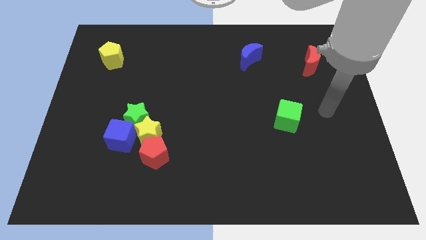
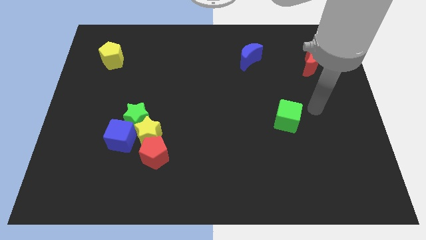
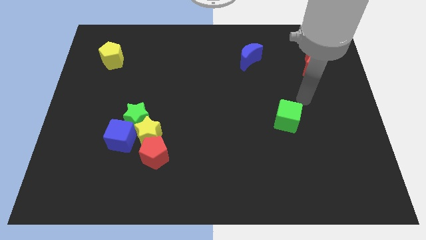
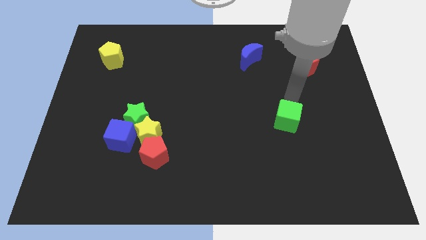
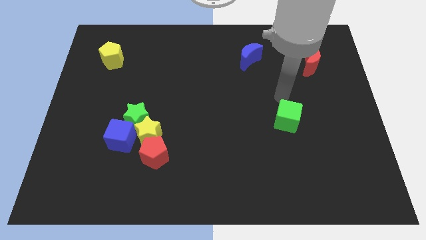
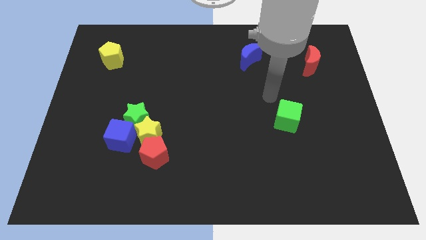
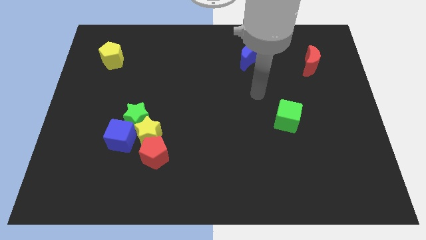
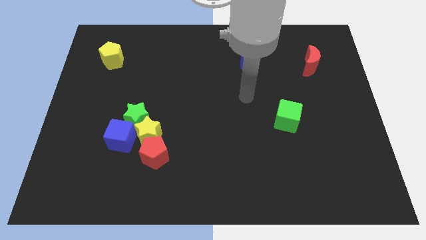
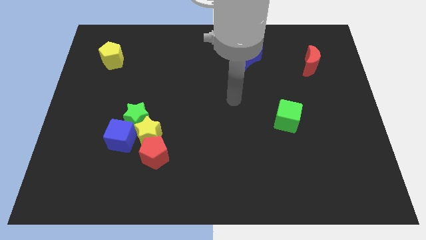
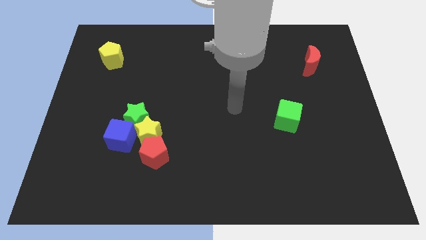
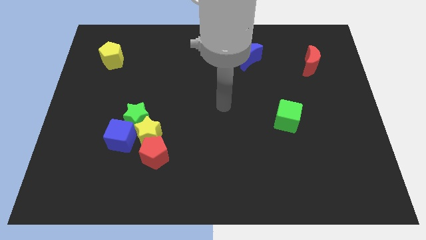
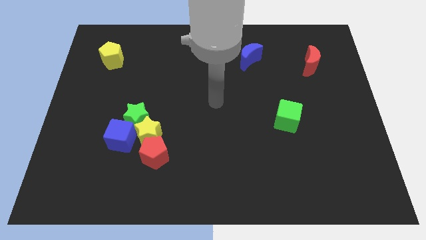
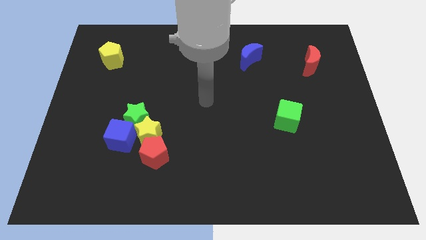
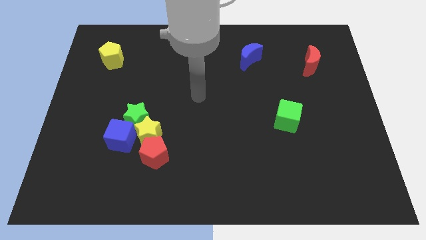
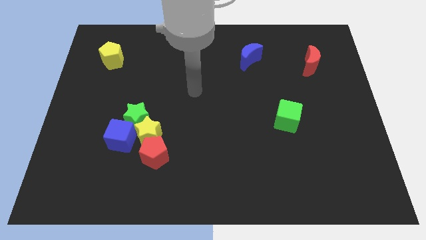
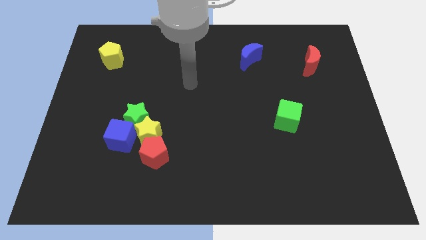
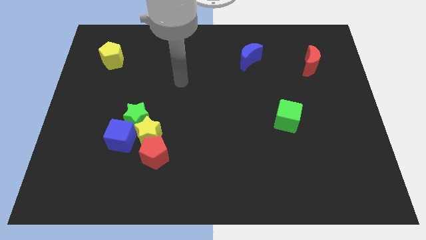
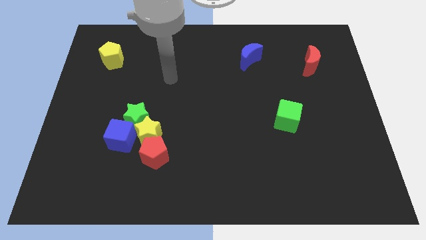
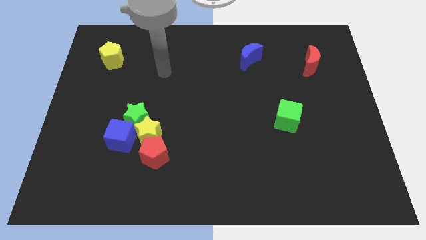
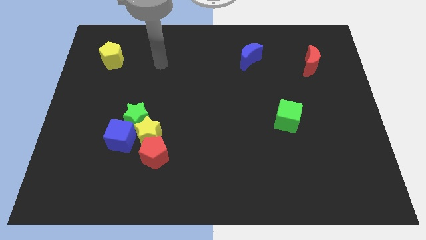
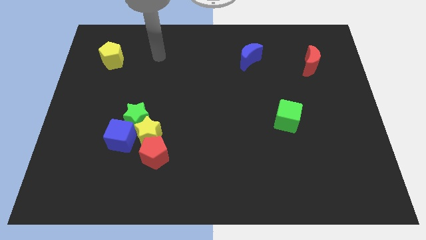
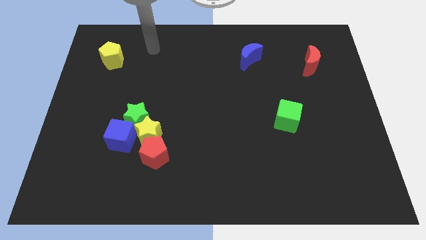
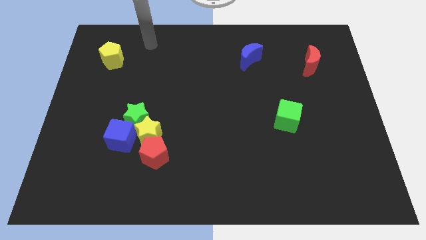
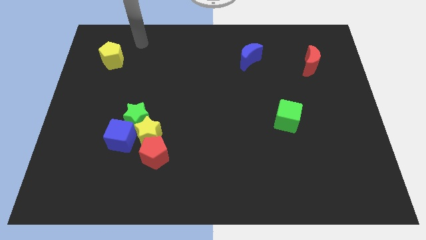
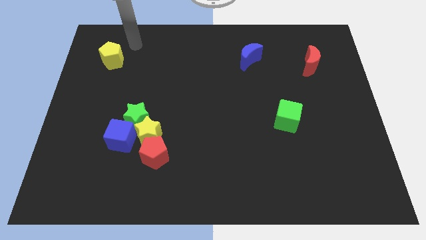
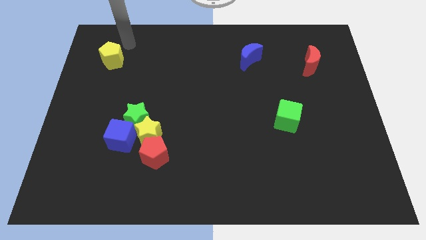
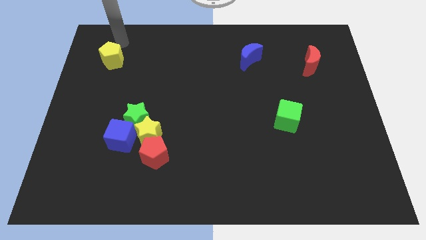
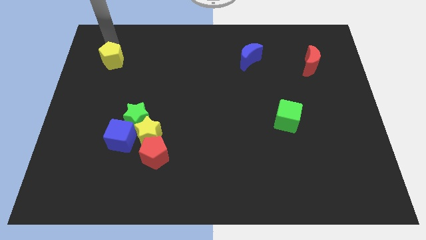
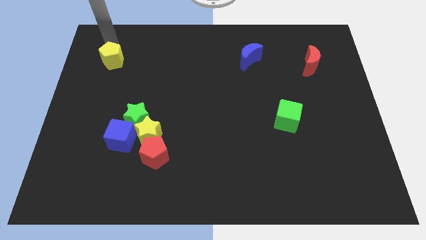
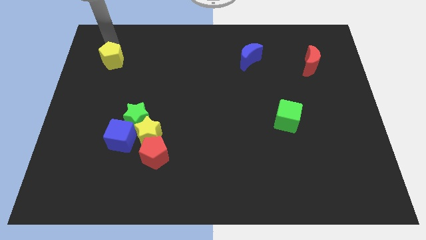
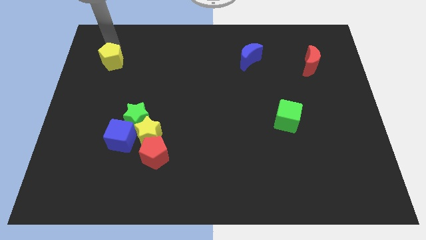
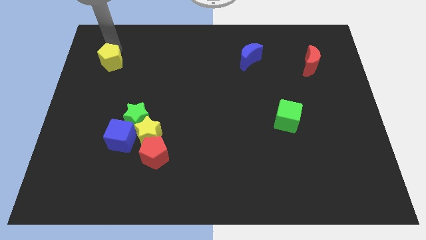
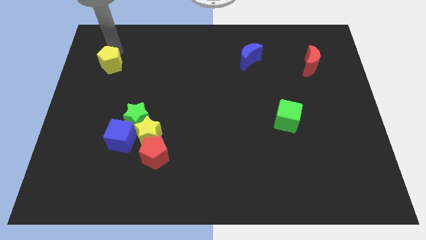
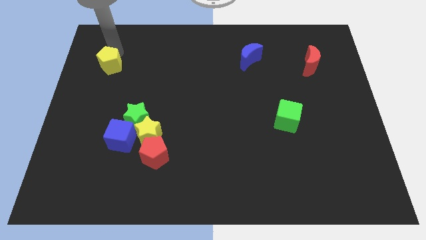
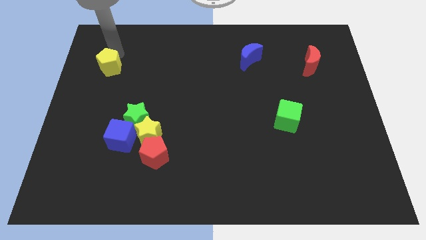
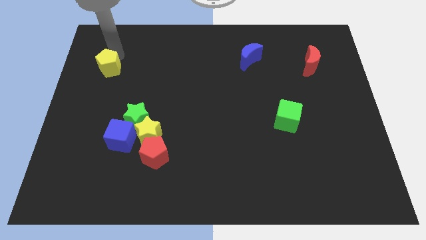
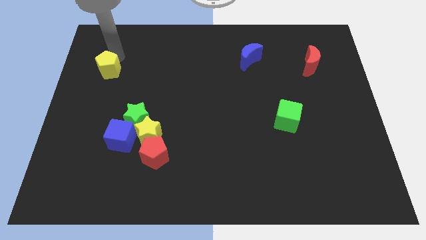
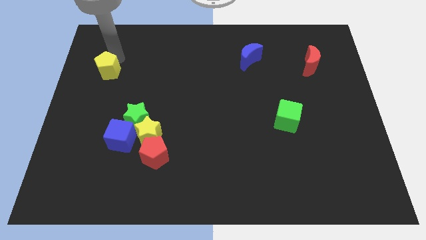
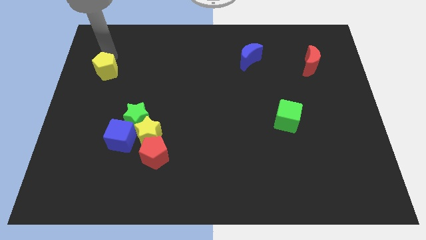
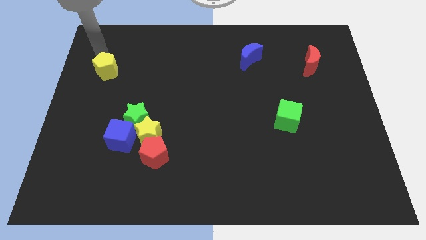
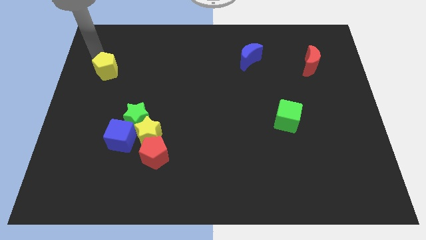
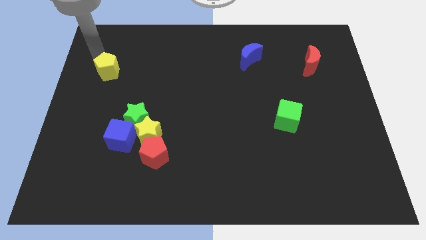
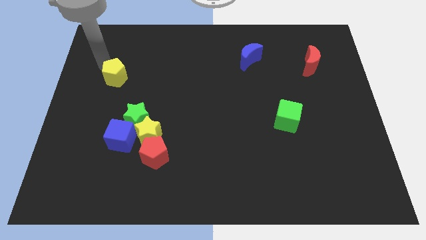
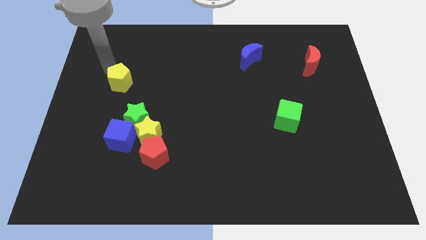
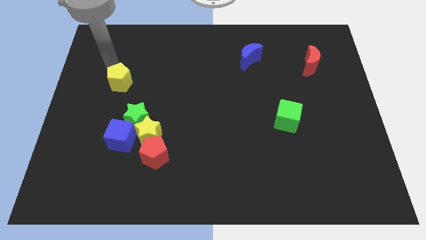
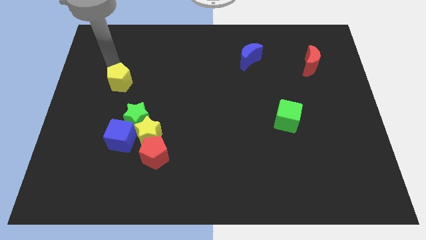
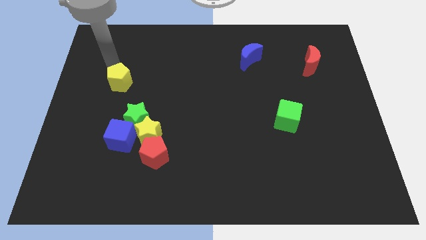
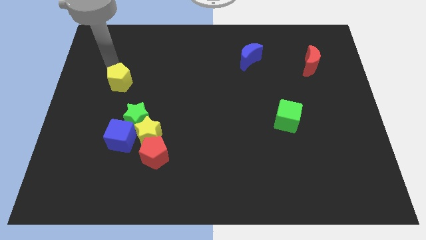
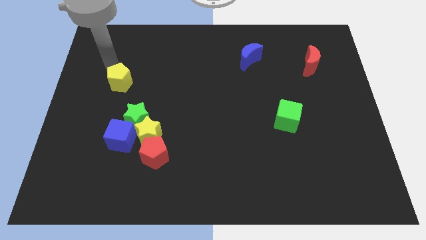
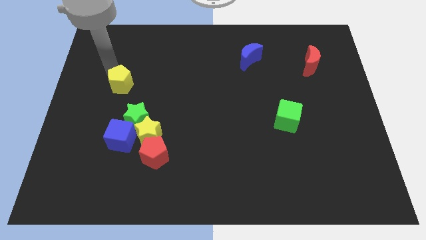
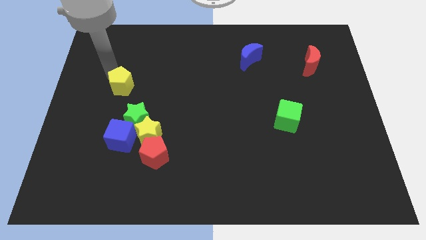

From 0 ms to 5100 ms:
push the yellow pentagon above the blue cube

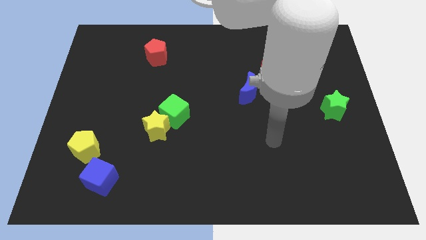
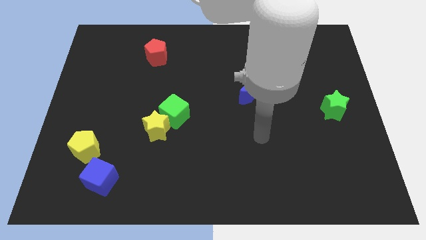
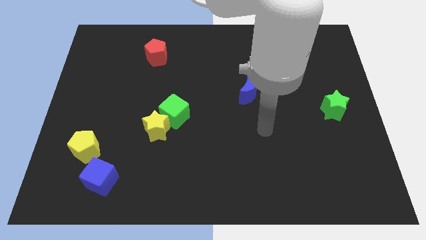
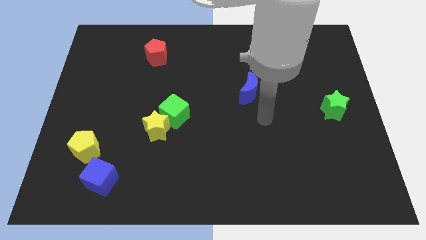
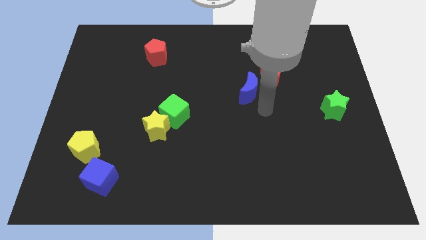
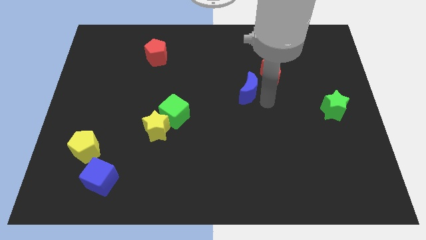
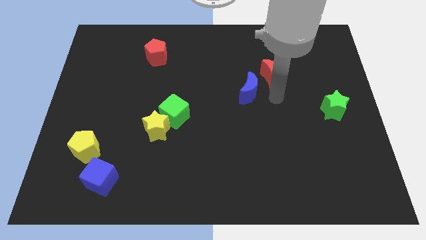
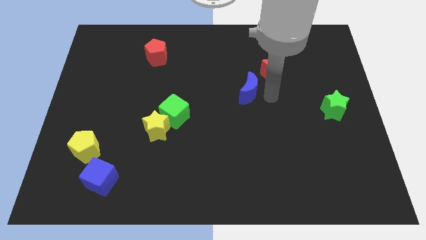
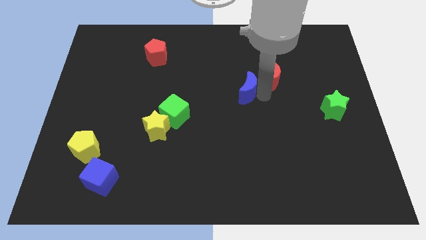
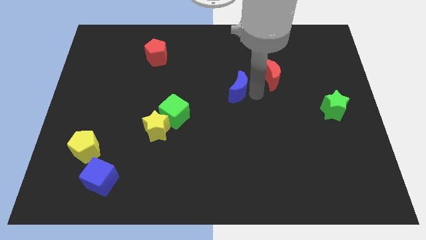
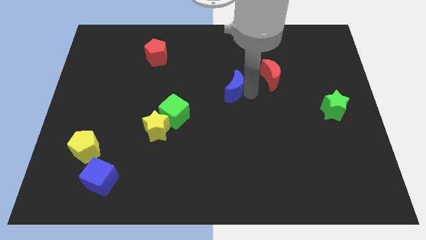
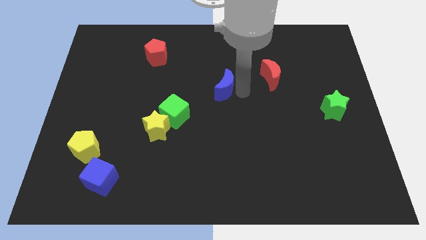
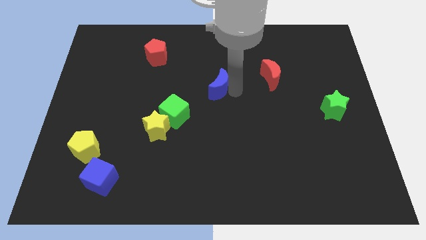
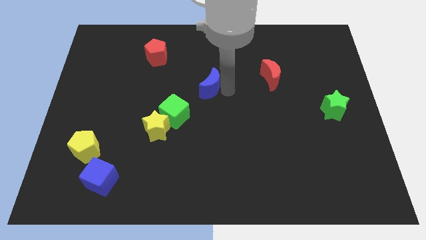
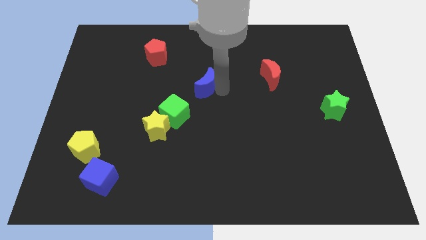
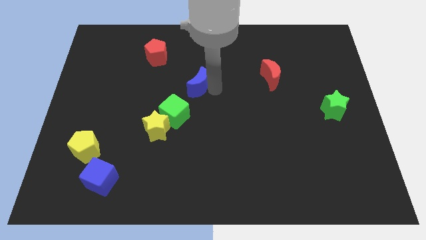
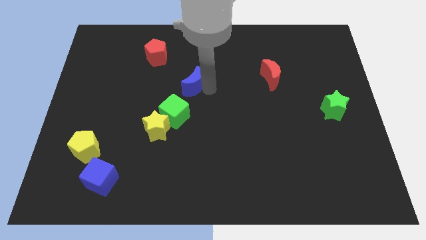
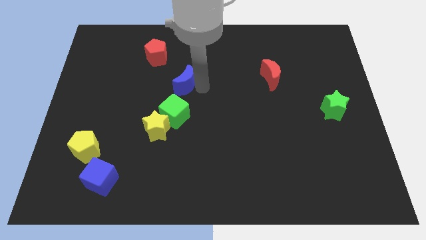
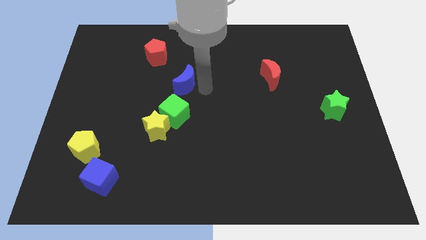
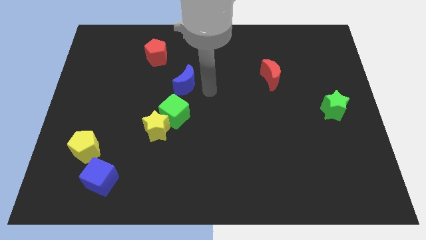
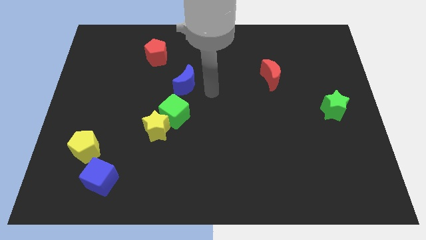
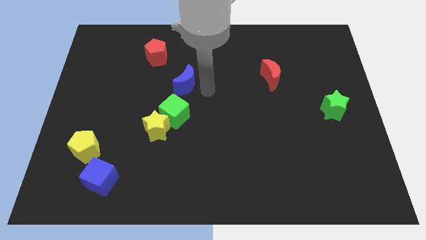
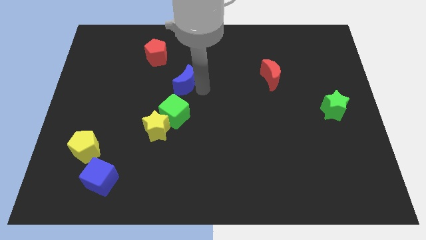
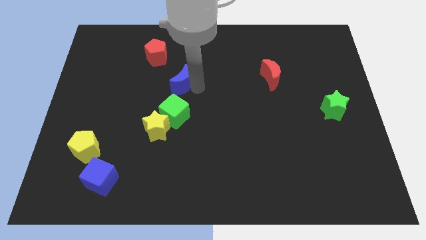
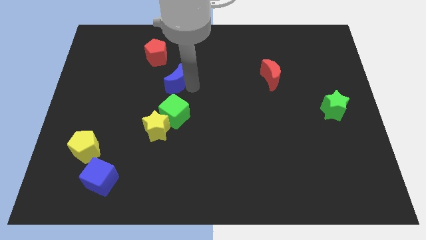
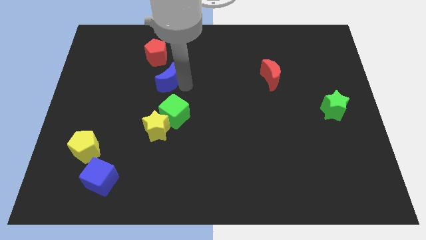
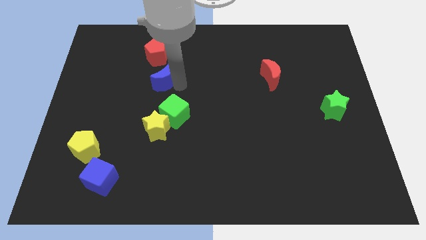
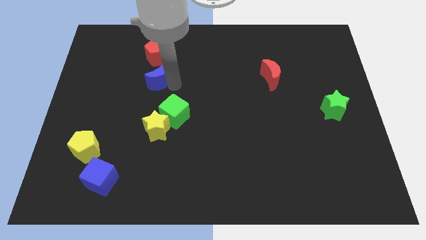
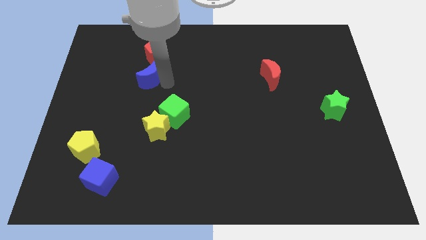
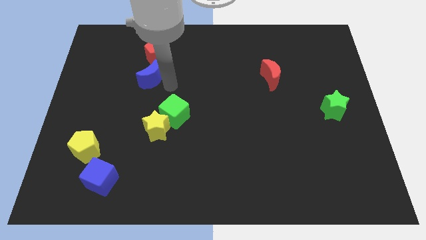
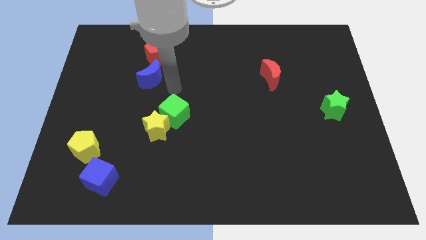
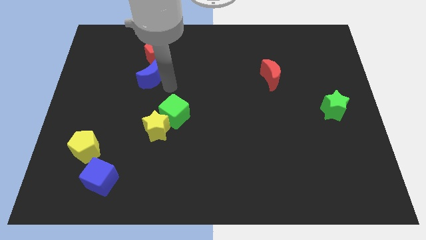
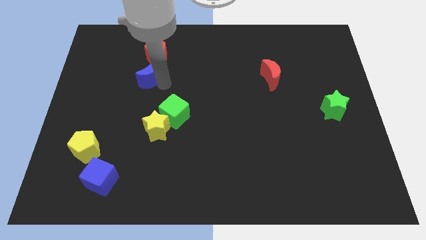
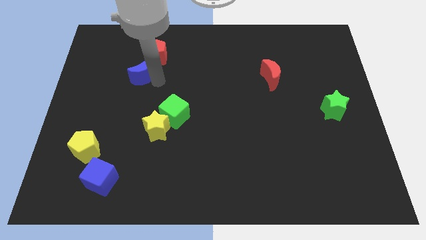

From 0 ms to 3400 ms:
push the blue moon to the bottom left side of the red pentagon
